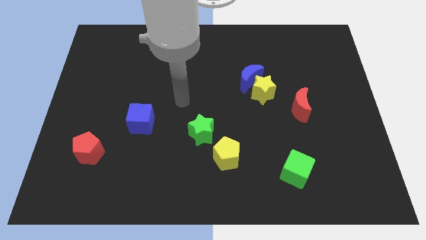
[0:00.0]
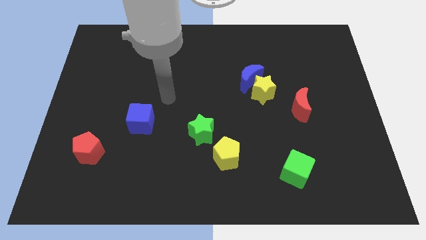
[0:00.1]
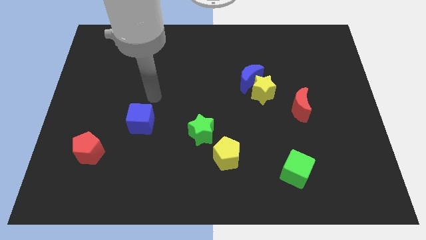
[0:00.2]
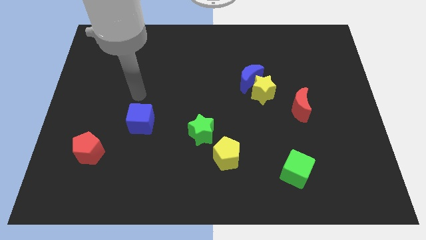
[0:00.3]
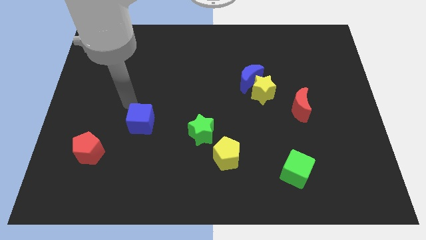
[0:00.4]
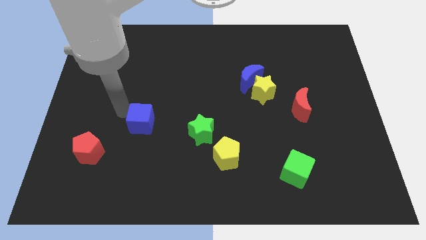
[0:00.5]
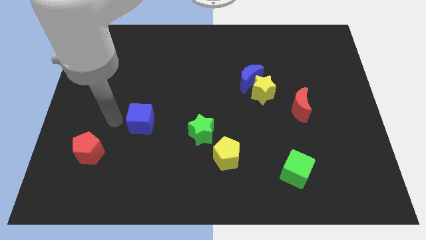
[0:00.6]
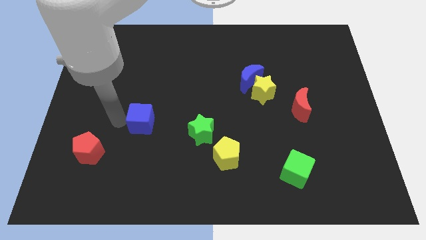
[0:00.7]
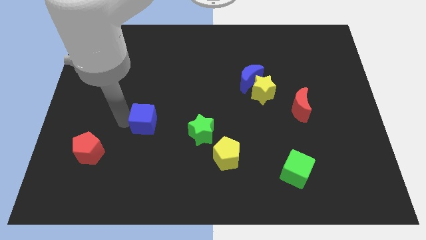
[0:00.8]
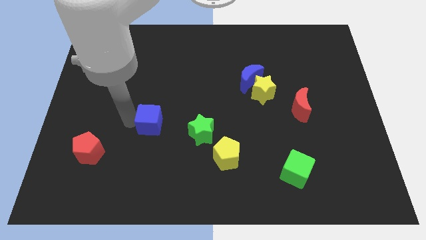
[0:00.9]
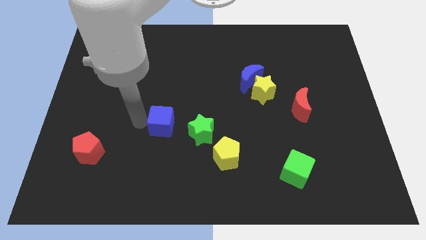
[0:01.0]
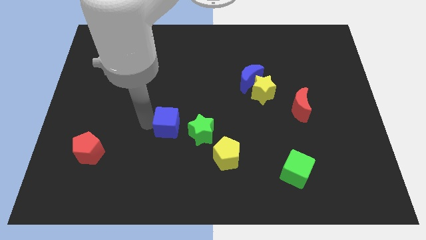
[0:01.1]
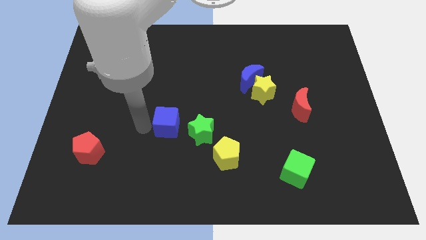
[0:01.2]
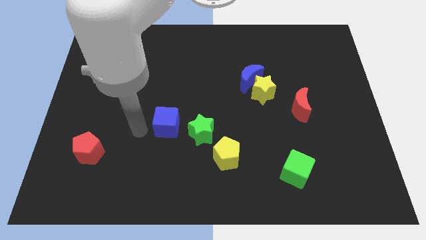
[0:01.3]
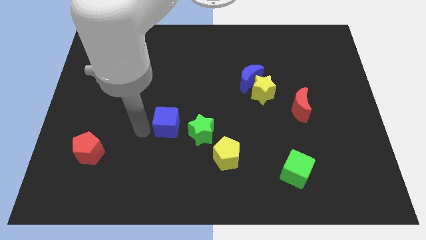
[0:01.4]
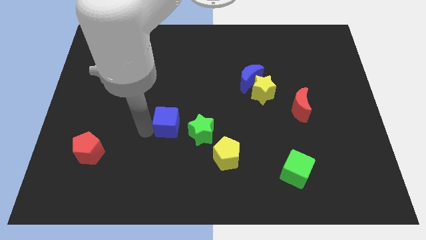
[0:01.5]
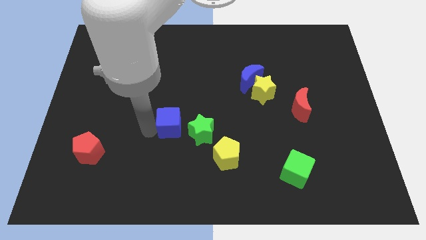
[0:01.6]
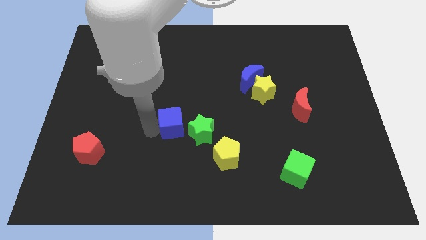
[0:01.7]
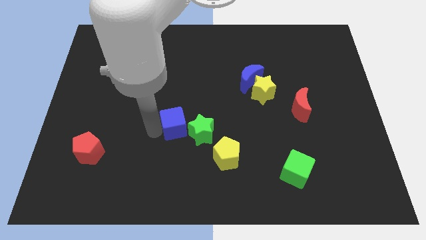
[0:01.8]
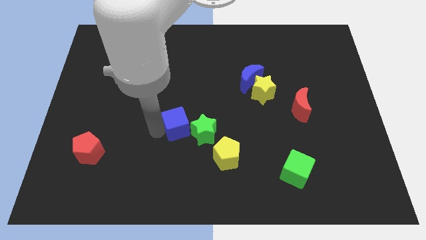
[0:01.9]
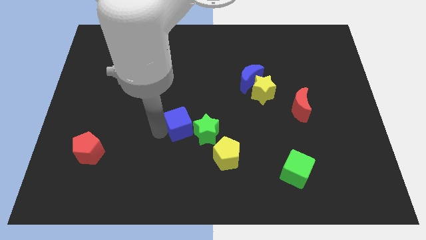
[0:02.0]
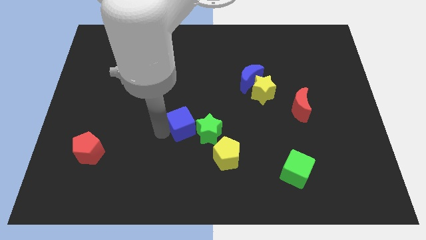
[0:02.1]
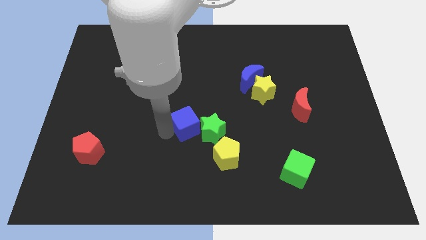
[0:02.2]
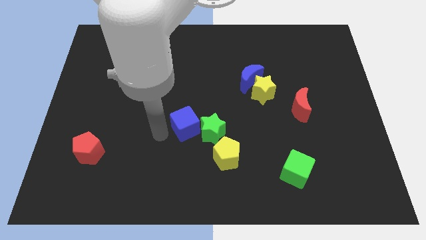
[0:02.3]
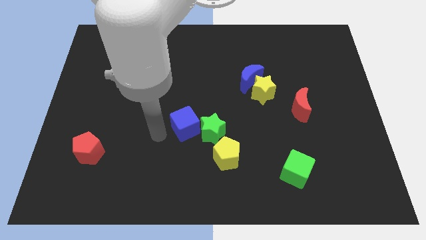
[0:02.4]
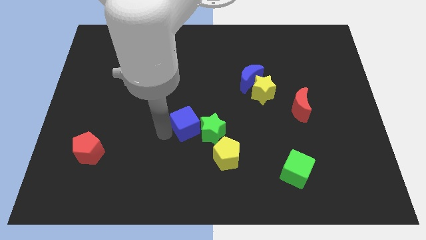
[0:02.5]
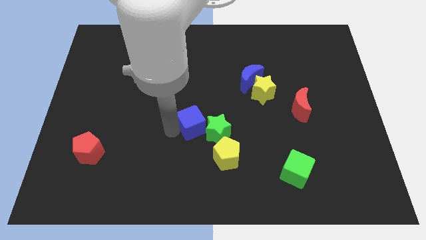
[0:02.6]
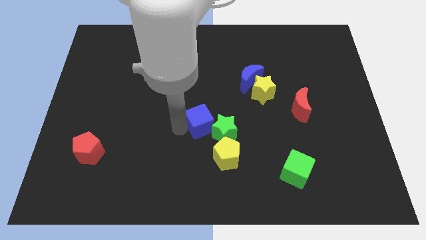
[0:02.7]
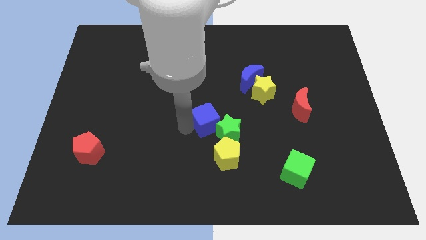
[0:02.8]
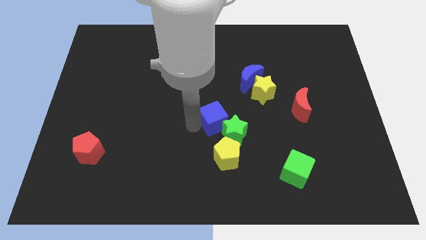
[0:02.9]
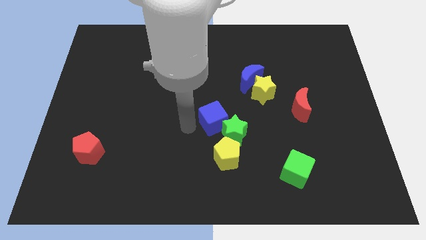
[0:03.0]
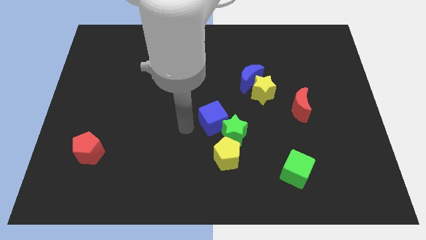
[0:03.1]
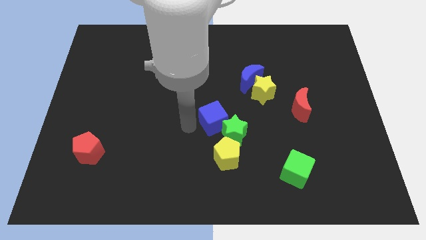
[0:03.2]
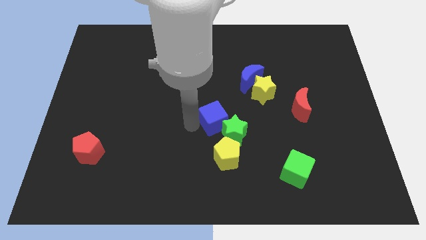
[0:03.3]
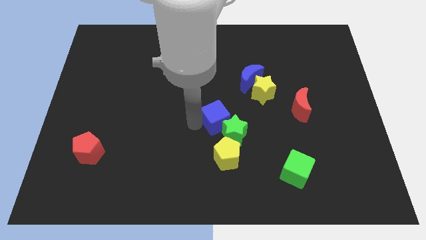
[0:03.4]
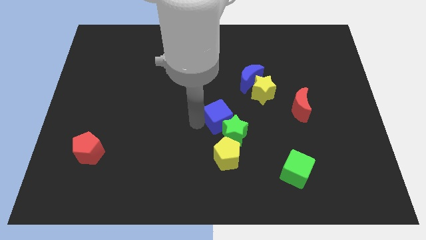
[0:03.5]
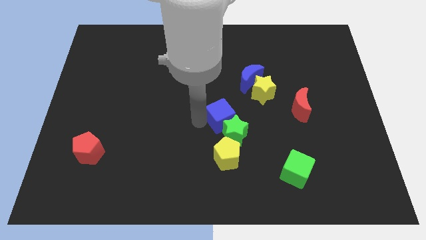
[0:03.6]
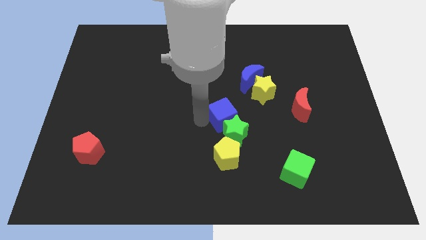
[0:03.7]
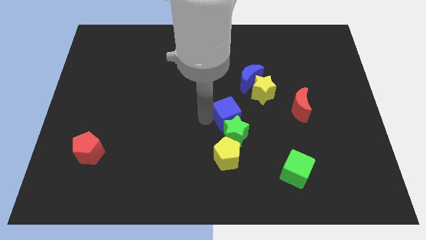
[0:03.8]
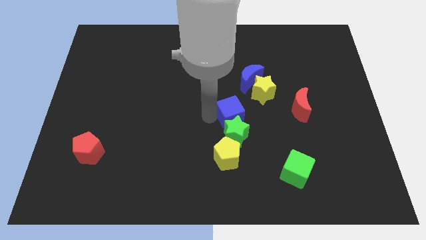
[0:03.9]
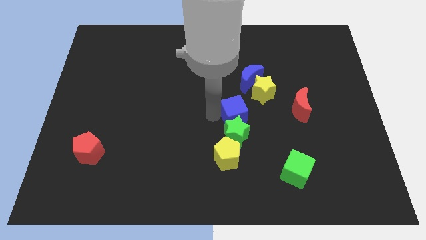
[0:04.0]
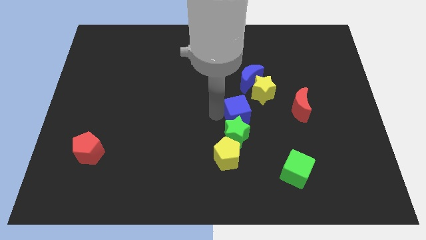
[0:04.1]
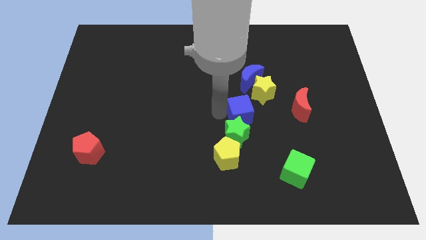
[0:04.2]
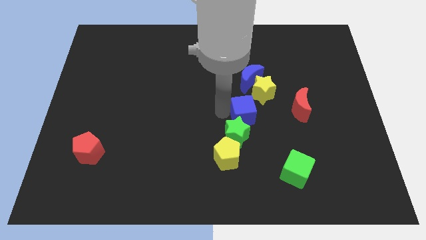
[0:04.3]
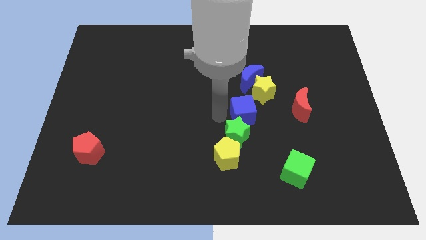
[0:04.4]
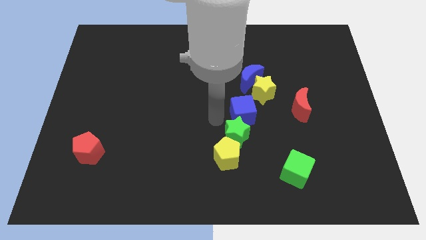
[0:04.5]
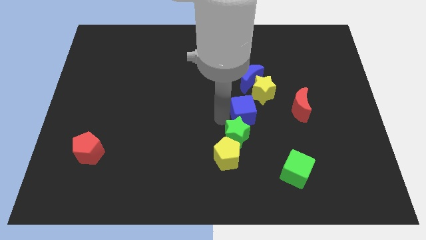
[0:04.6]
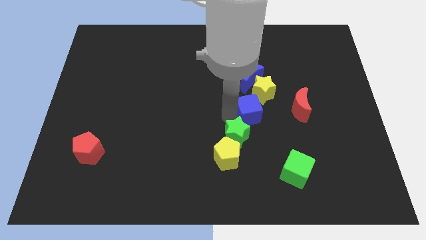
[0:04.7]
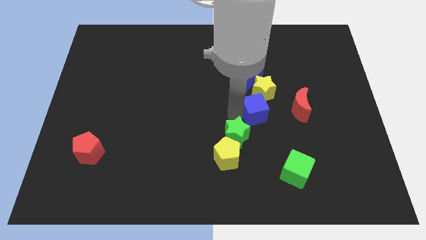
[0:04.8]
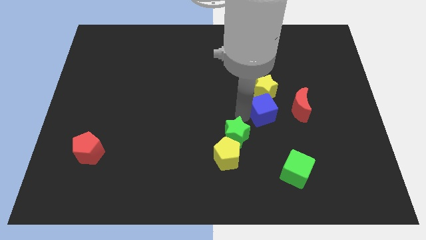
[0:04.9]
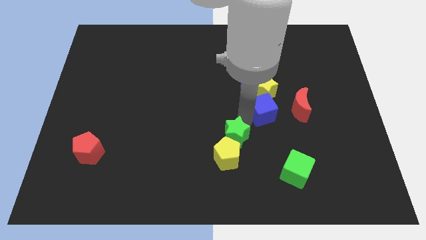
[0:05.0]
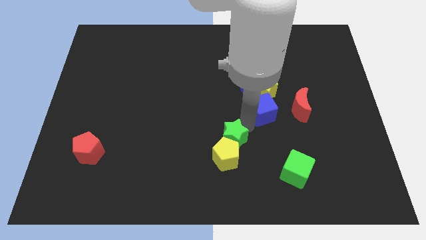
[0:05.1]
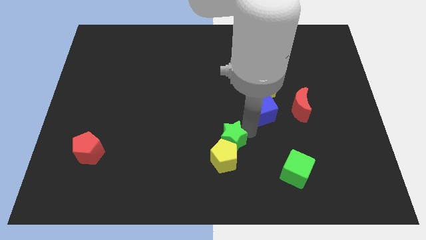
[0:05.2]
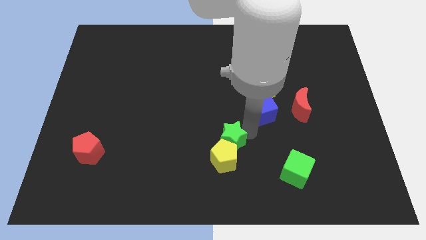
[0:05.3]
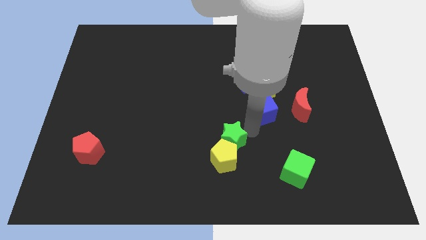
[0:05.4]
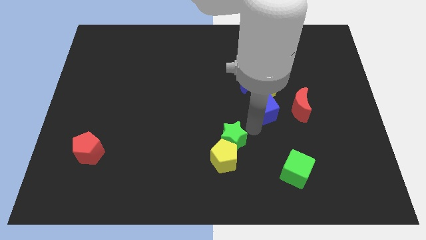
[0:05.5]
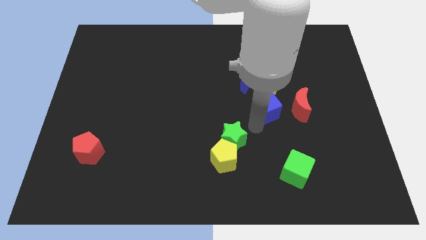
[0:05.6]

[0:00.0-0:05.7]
push the blue cube diagonally down and to the right of the blue moon

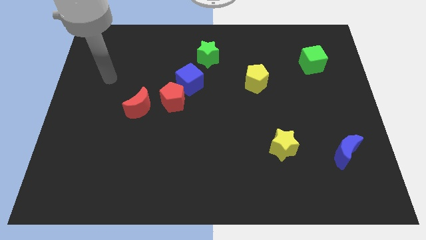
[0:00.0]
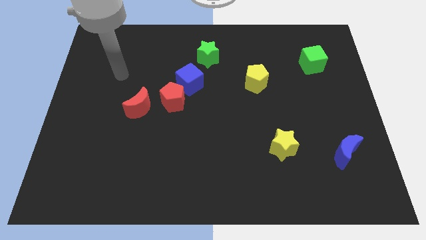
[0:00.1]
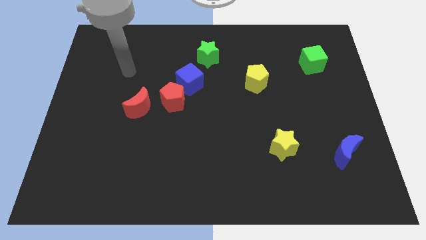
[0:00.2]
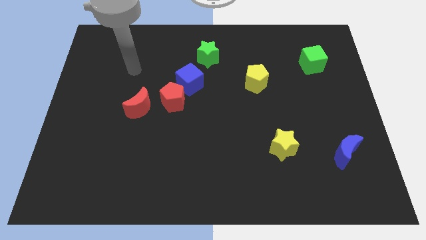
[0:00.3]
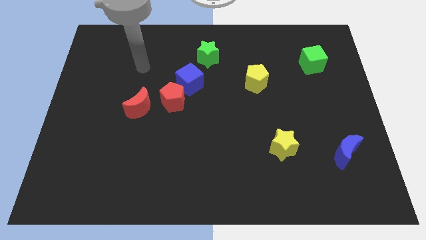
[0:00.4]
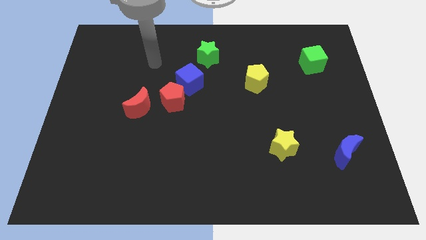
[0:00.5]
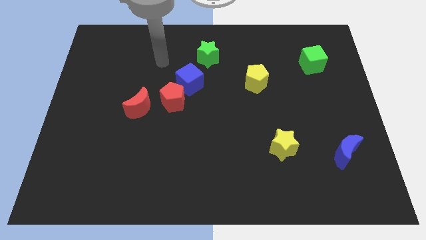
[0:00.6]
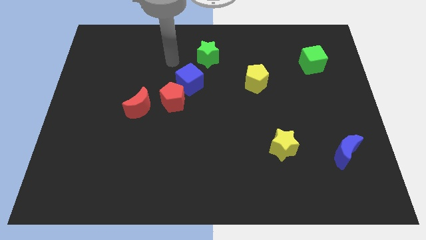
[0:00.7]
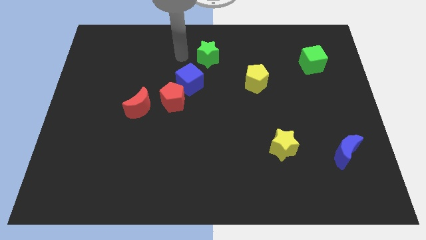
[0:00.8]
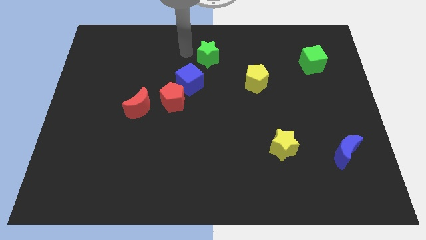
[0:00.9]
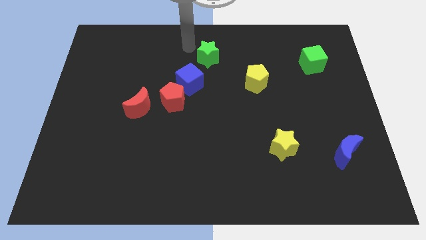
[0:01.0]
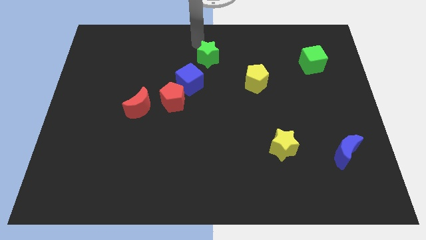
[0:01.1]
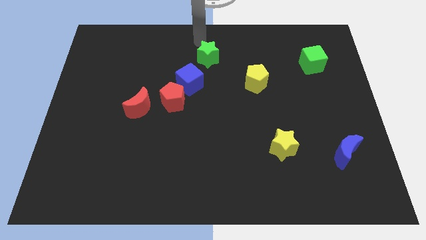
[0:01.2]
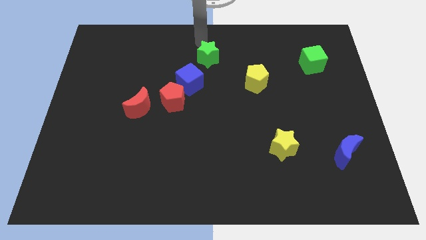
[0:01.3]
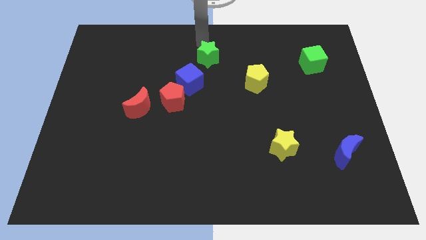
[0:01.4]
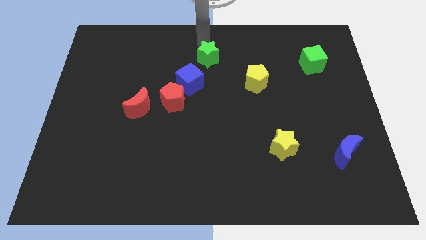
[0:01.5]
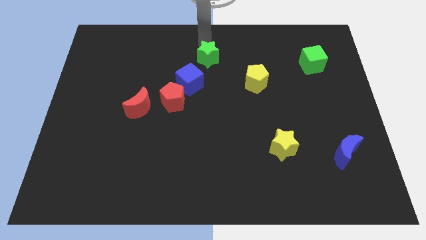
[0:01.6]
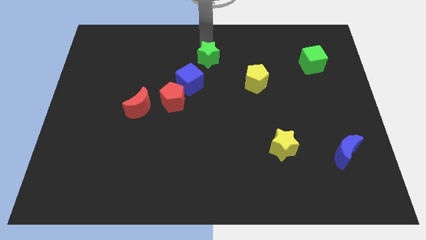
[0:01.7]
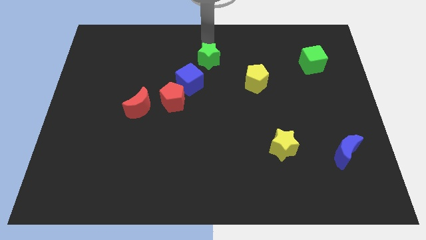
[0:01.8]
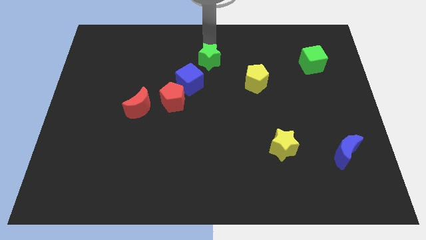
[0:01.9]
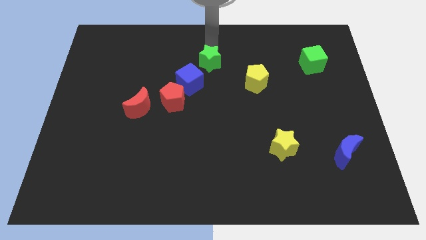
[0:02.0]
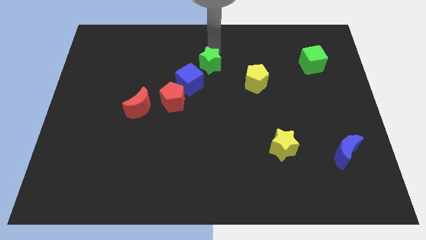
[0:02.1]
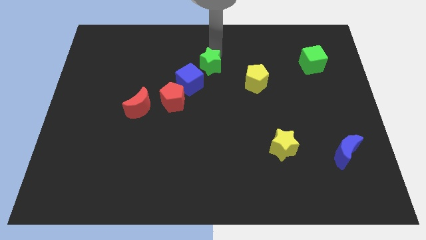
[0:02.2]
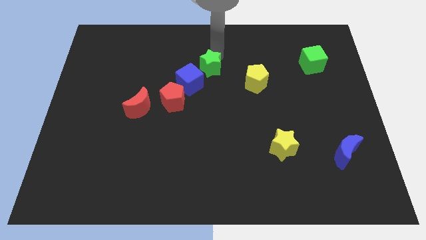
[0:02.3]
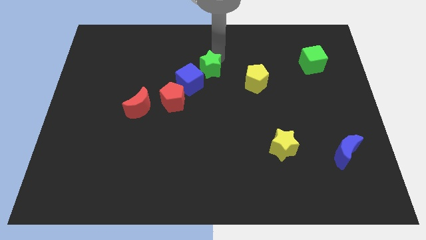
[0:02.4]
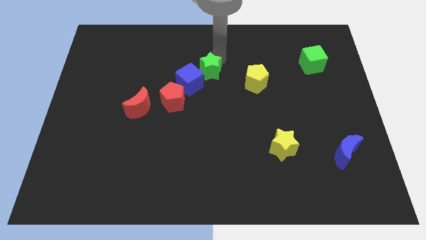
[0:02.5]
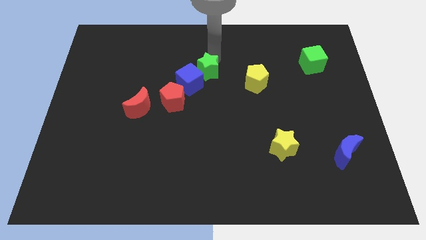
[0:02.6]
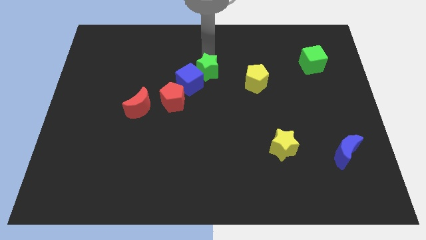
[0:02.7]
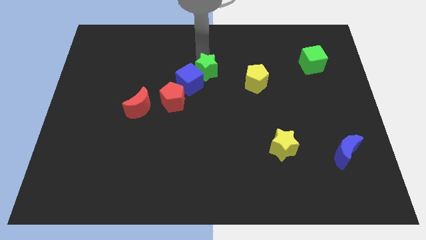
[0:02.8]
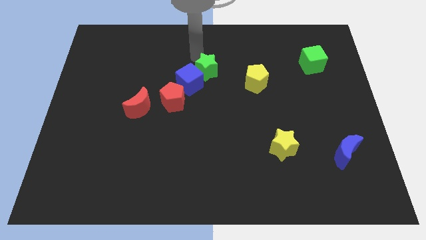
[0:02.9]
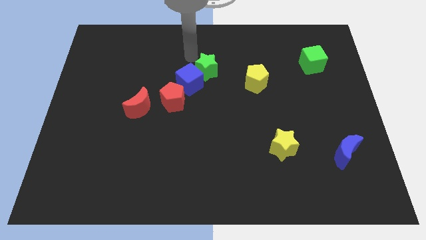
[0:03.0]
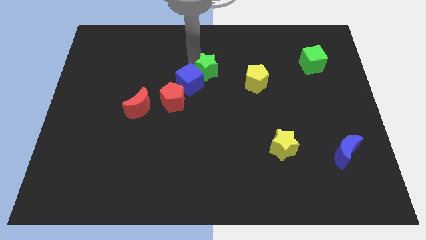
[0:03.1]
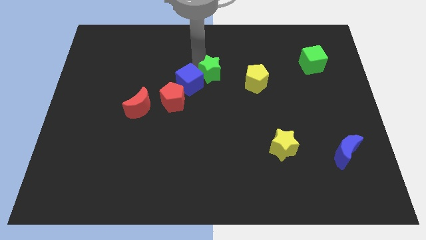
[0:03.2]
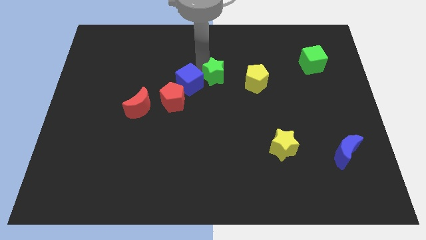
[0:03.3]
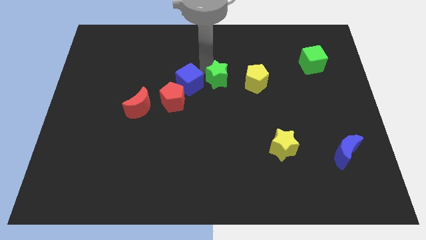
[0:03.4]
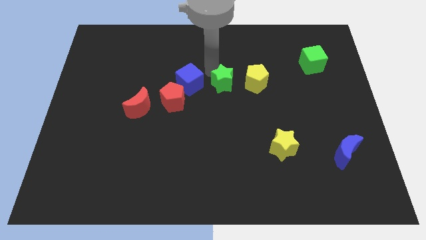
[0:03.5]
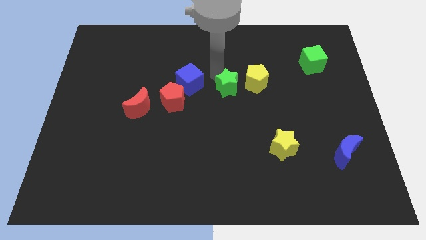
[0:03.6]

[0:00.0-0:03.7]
put the green star to the bottom left of the yellow pentagon
